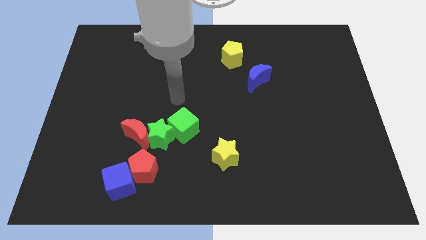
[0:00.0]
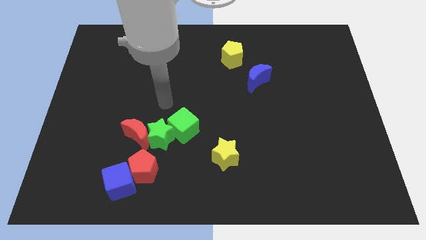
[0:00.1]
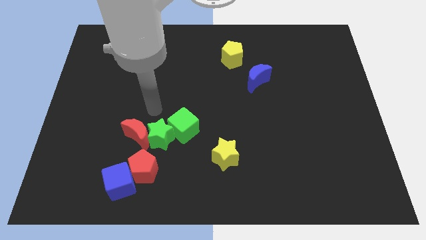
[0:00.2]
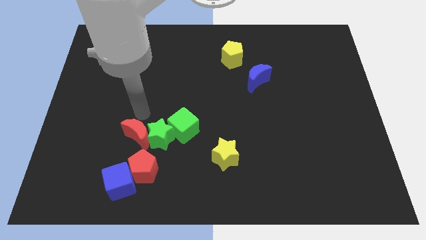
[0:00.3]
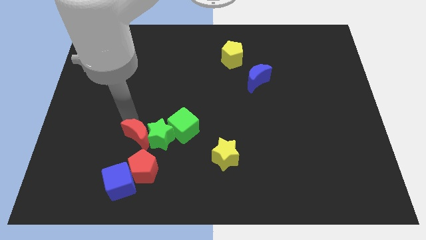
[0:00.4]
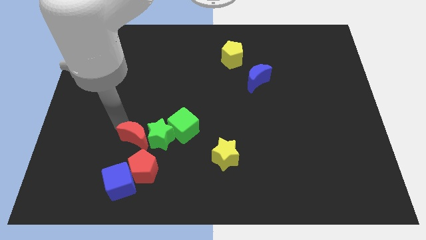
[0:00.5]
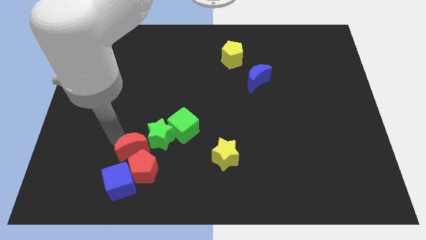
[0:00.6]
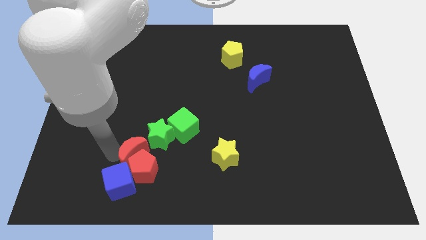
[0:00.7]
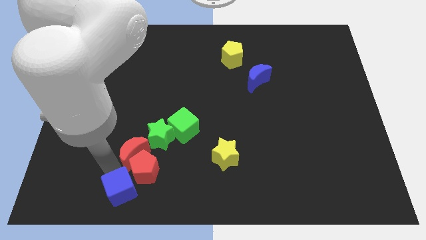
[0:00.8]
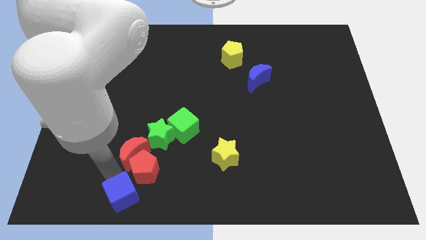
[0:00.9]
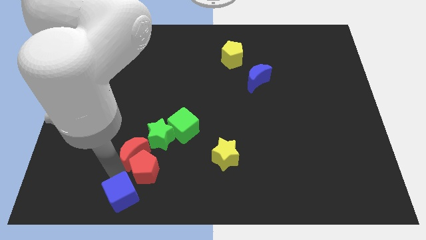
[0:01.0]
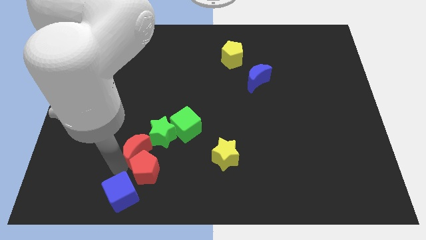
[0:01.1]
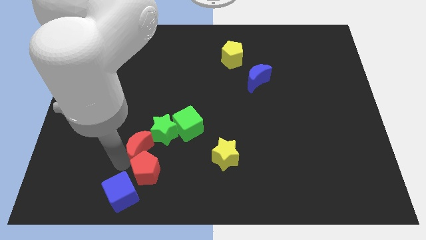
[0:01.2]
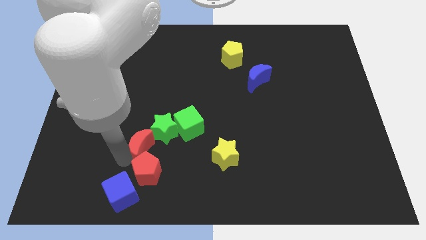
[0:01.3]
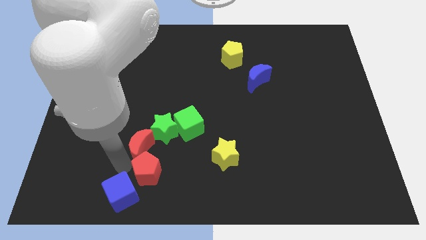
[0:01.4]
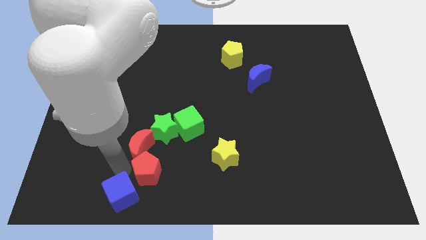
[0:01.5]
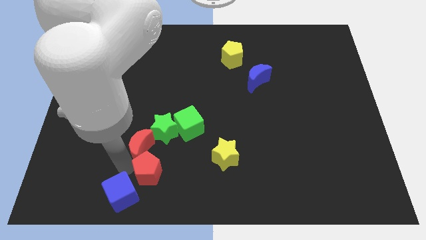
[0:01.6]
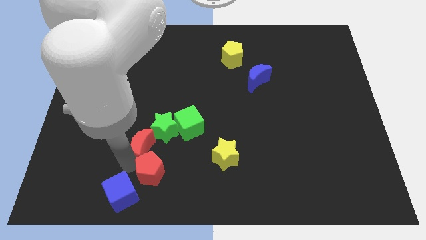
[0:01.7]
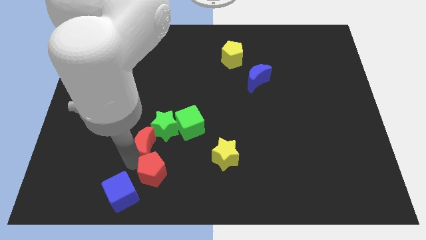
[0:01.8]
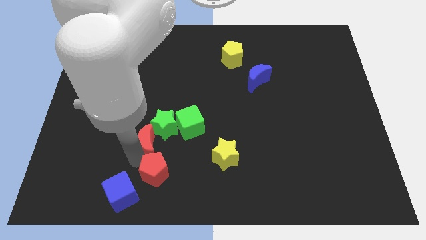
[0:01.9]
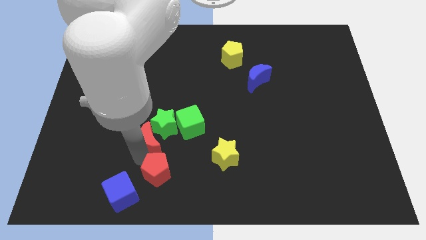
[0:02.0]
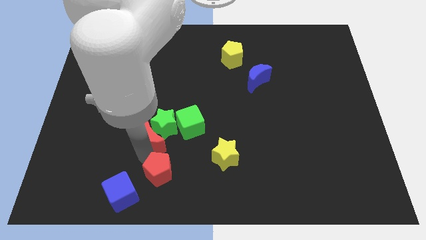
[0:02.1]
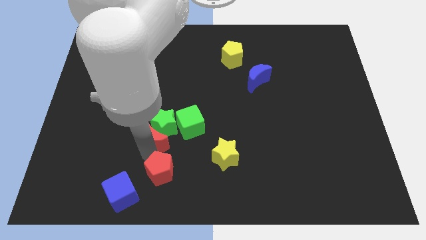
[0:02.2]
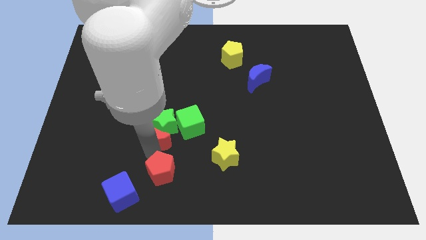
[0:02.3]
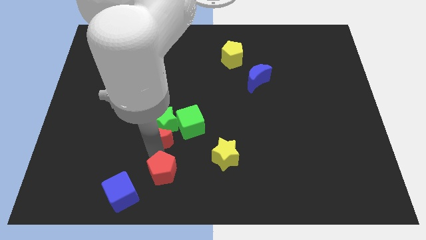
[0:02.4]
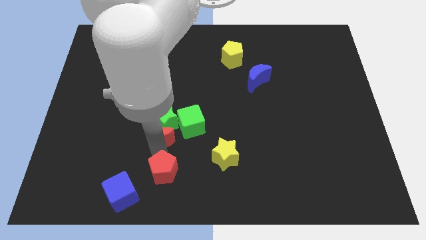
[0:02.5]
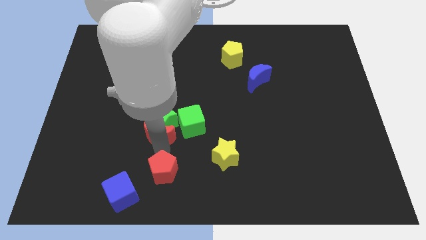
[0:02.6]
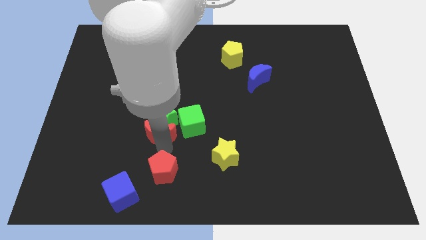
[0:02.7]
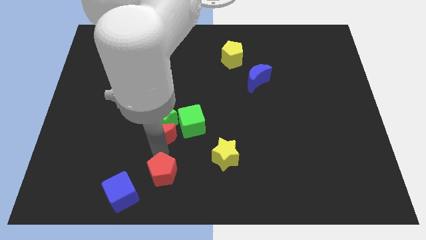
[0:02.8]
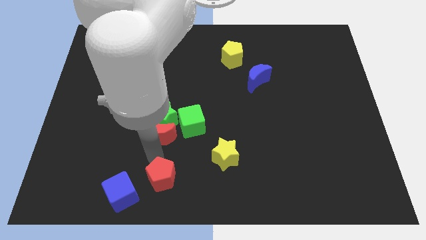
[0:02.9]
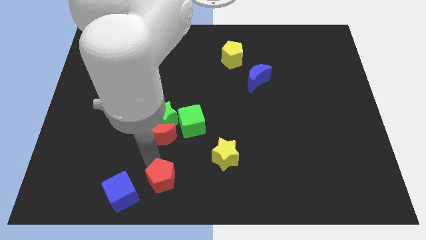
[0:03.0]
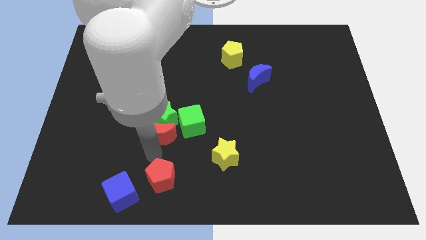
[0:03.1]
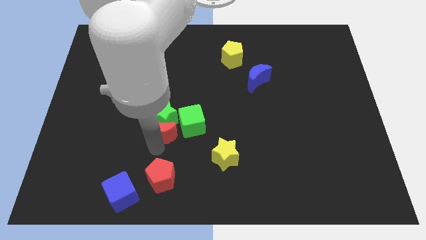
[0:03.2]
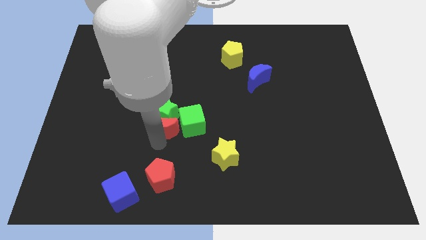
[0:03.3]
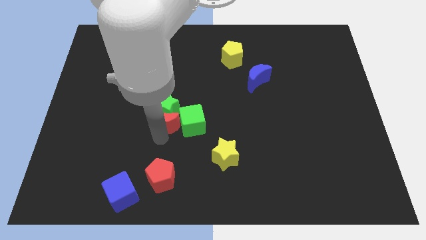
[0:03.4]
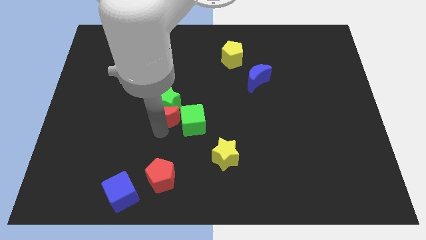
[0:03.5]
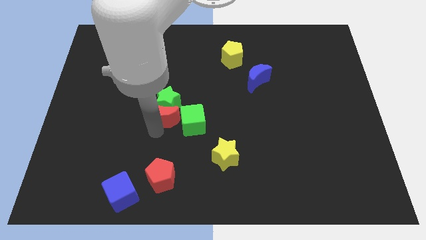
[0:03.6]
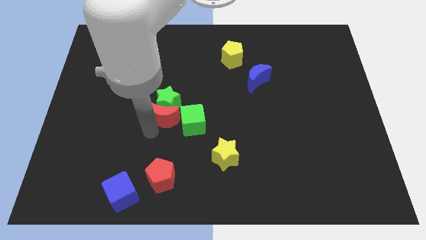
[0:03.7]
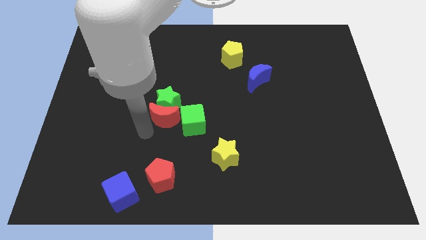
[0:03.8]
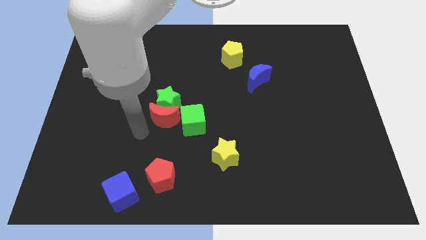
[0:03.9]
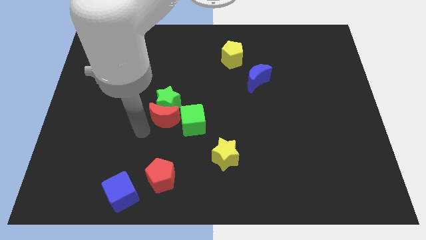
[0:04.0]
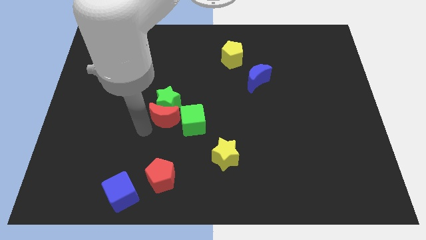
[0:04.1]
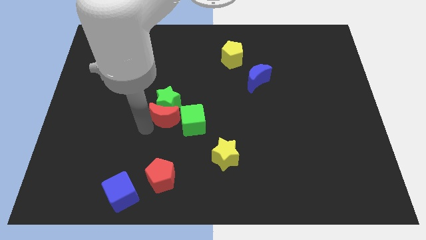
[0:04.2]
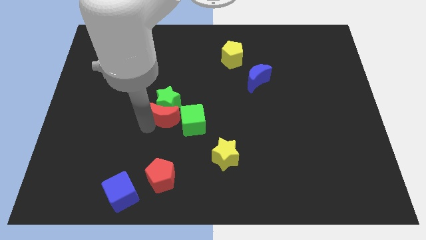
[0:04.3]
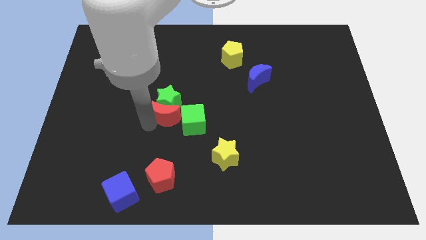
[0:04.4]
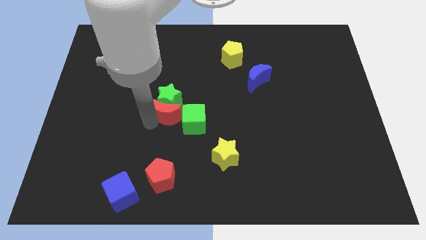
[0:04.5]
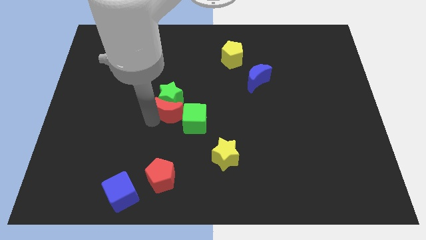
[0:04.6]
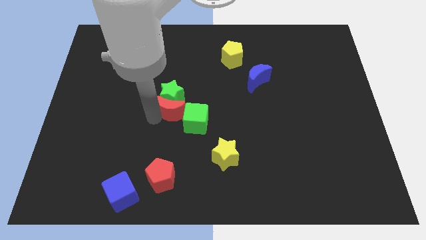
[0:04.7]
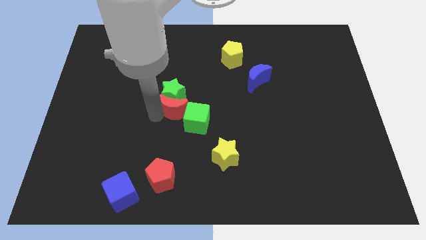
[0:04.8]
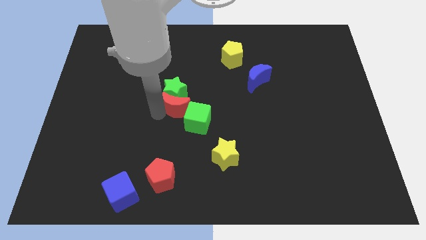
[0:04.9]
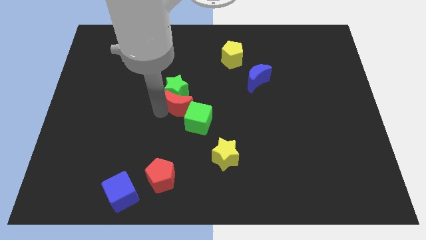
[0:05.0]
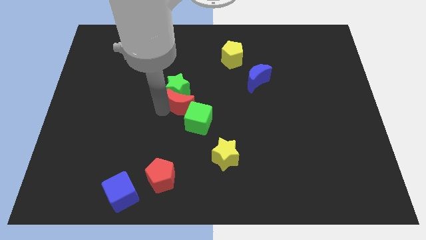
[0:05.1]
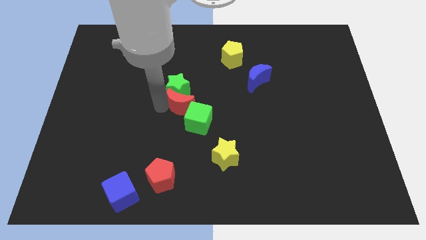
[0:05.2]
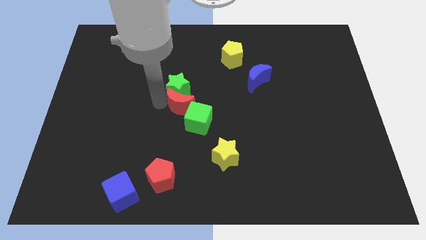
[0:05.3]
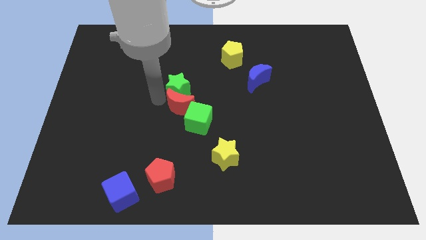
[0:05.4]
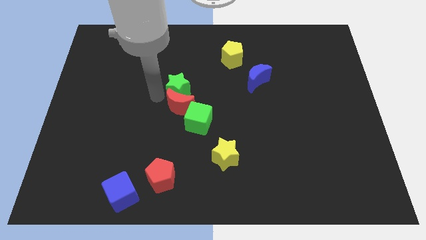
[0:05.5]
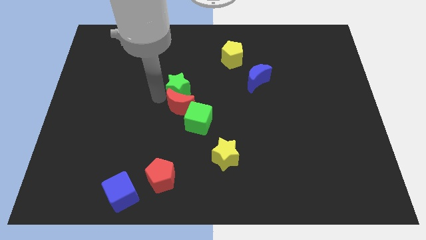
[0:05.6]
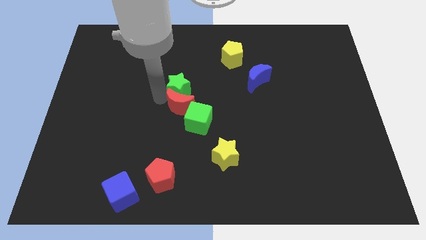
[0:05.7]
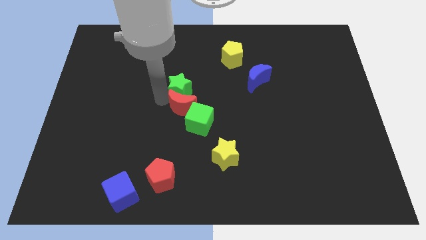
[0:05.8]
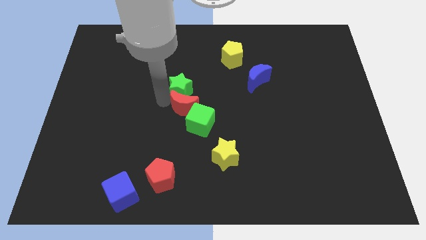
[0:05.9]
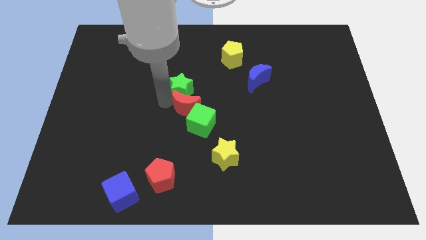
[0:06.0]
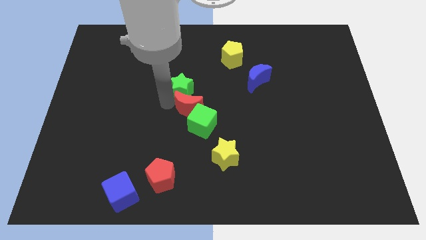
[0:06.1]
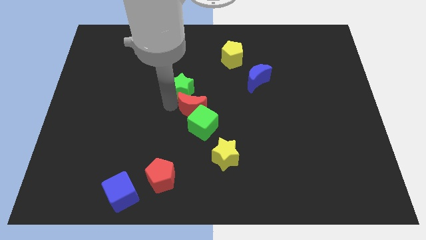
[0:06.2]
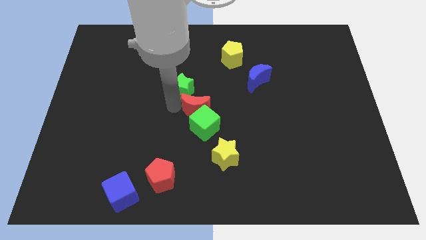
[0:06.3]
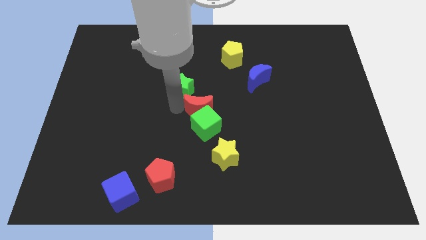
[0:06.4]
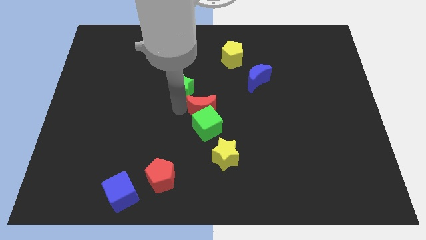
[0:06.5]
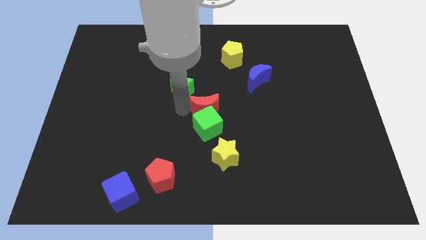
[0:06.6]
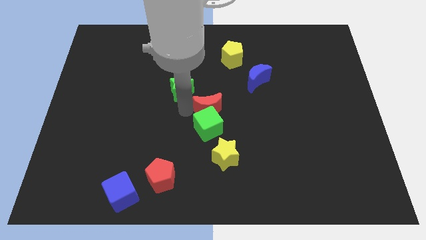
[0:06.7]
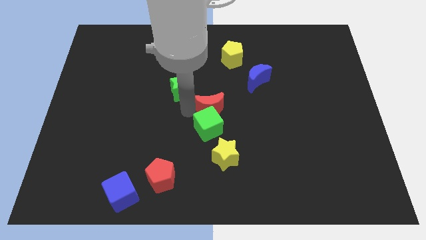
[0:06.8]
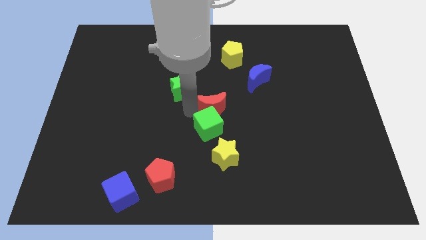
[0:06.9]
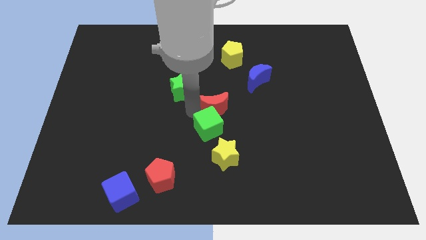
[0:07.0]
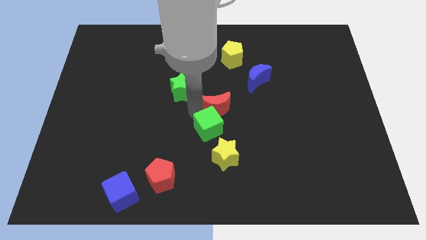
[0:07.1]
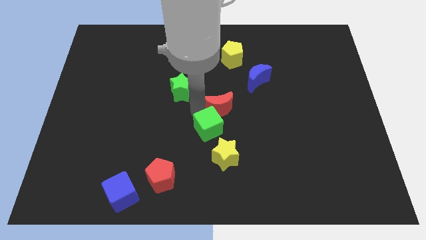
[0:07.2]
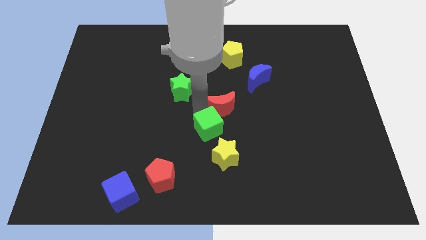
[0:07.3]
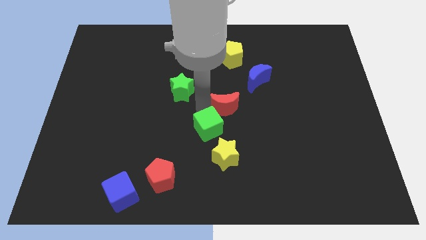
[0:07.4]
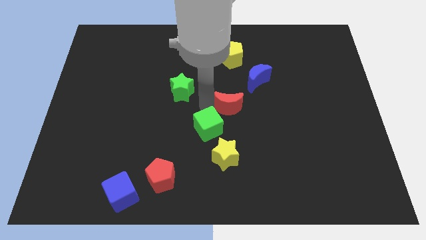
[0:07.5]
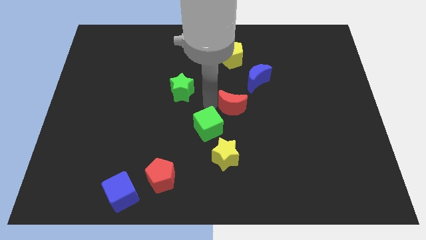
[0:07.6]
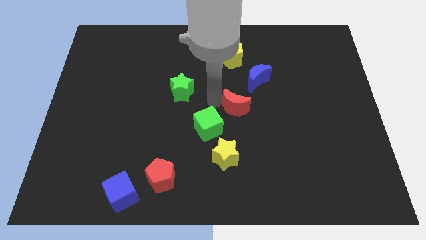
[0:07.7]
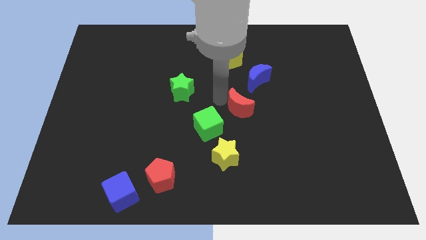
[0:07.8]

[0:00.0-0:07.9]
push the red moon to the right
